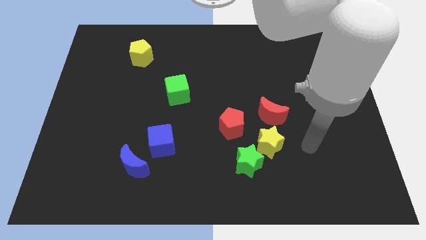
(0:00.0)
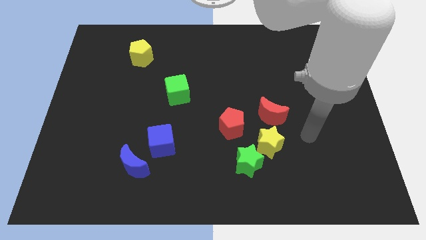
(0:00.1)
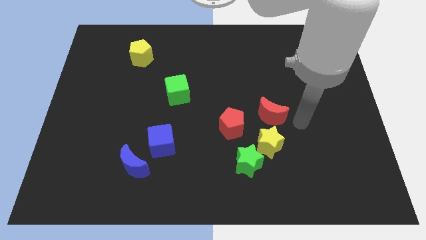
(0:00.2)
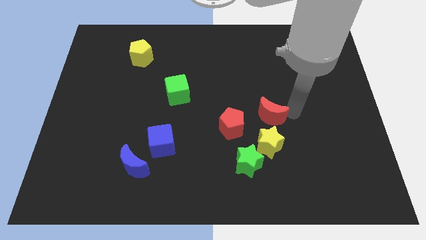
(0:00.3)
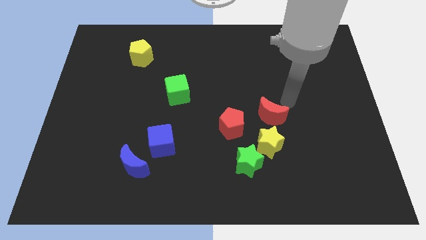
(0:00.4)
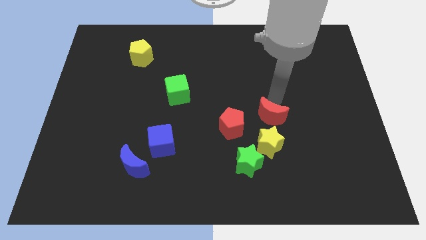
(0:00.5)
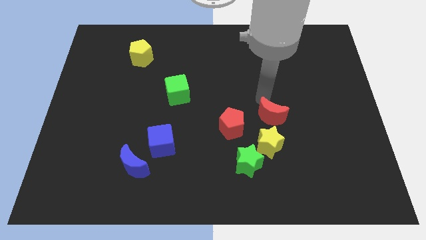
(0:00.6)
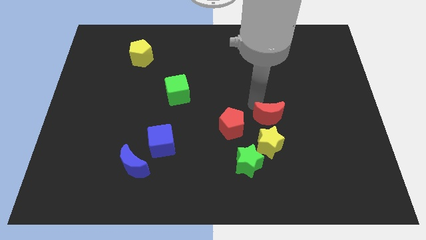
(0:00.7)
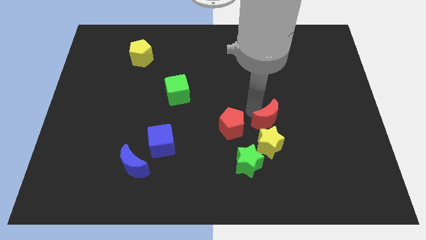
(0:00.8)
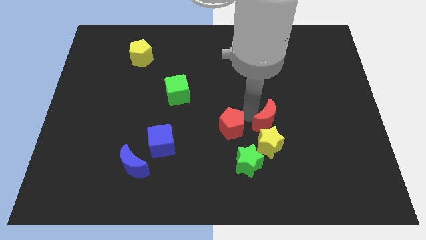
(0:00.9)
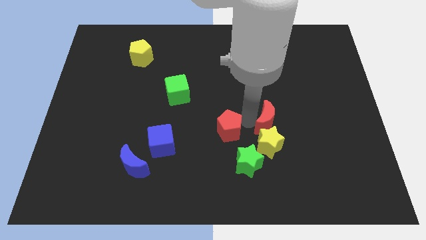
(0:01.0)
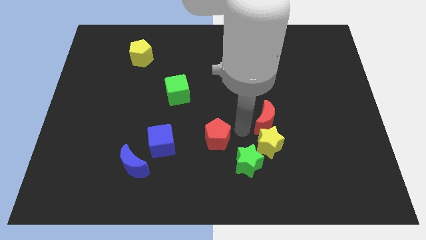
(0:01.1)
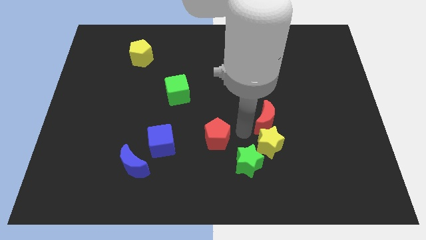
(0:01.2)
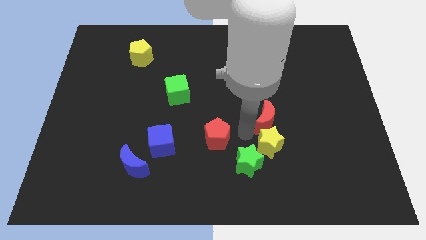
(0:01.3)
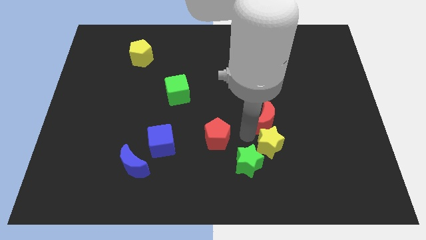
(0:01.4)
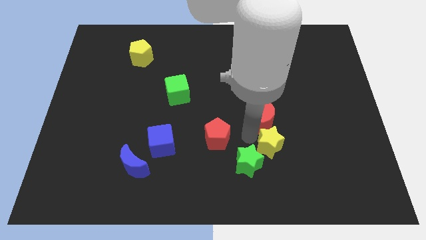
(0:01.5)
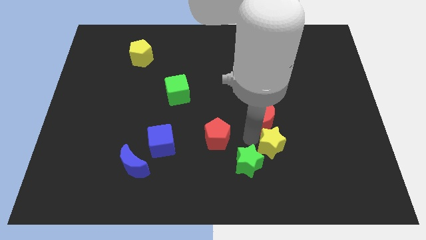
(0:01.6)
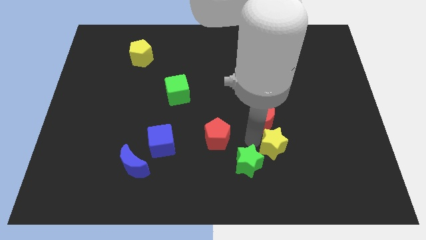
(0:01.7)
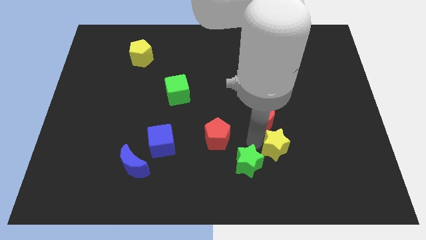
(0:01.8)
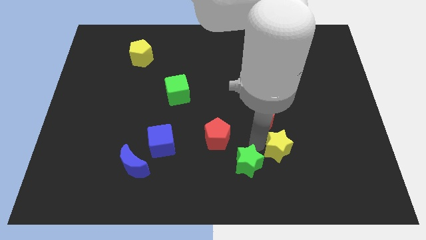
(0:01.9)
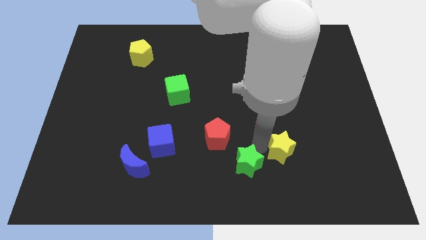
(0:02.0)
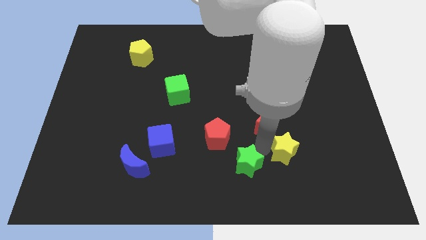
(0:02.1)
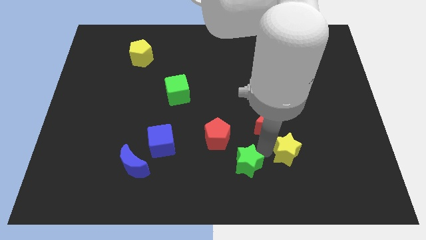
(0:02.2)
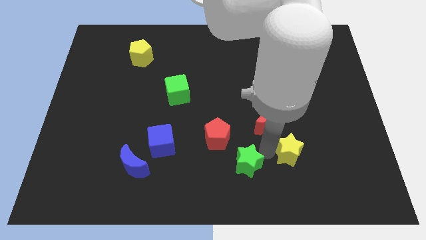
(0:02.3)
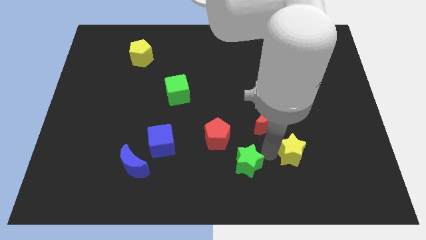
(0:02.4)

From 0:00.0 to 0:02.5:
separate the yellow star from the green star, red moon, and red pentagon

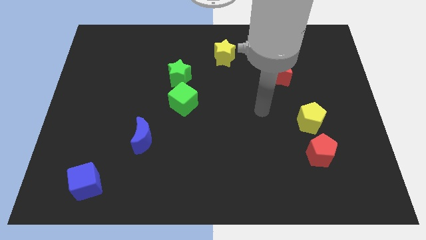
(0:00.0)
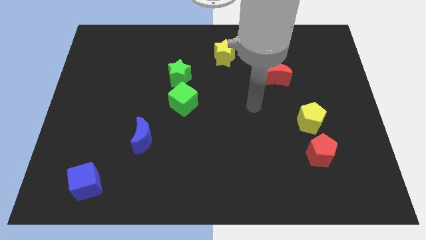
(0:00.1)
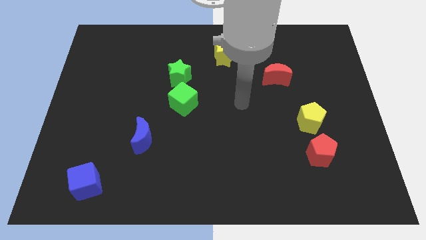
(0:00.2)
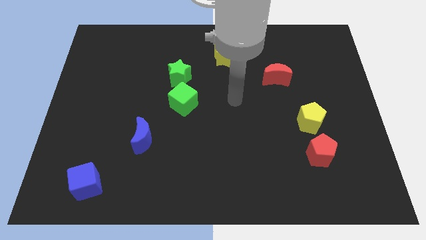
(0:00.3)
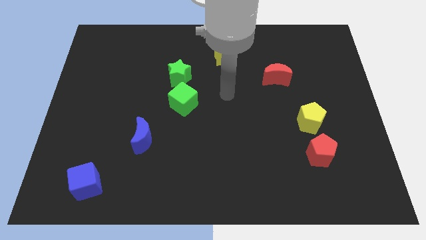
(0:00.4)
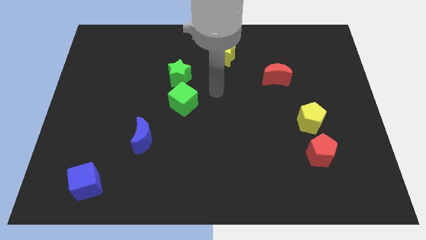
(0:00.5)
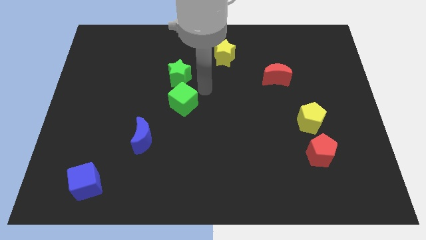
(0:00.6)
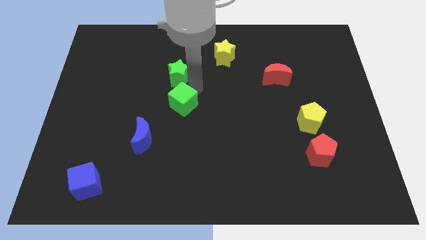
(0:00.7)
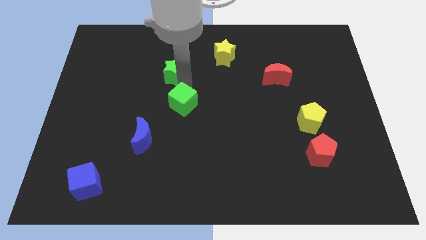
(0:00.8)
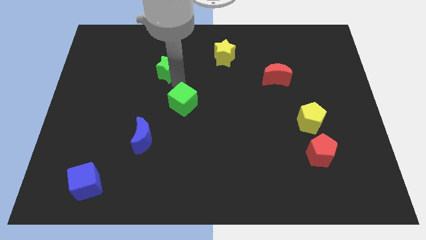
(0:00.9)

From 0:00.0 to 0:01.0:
move the green cube away from the green star

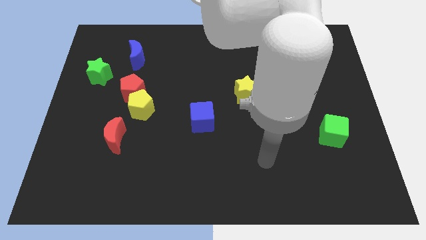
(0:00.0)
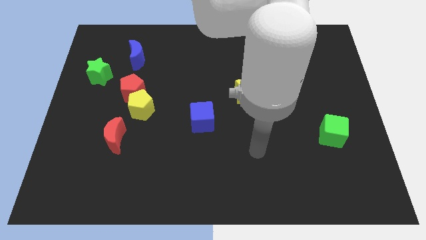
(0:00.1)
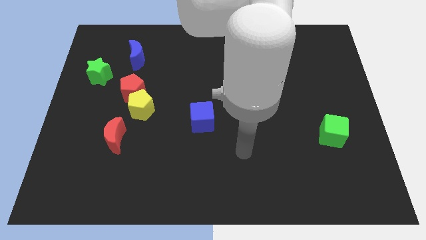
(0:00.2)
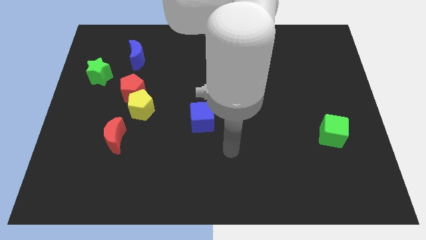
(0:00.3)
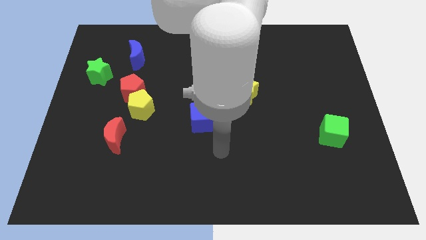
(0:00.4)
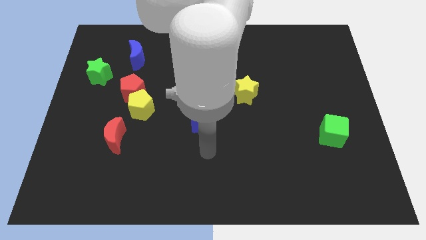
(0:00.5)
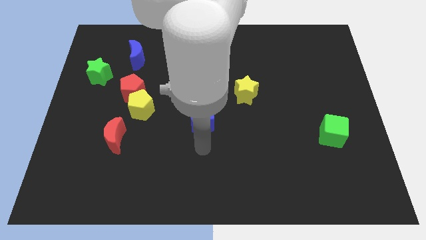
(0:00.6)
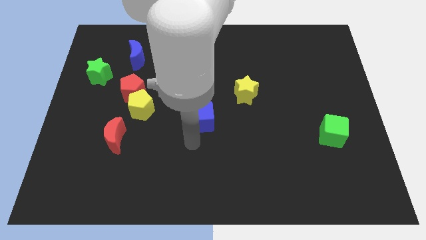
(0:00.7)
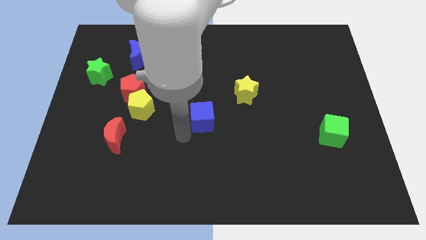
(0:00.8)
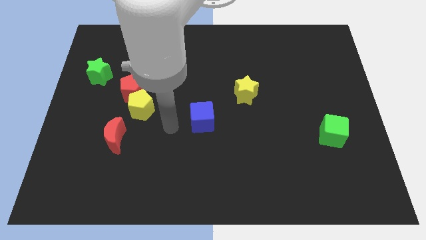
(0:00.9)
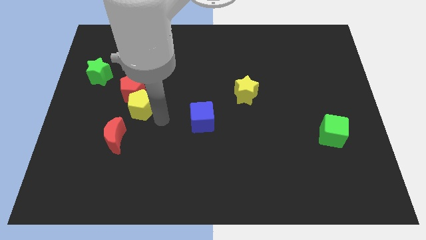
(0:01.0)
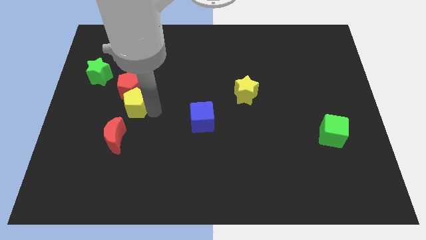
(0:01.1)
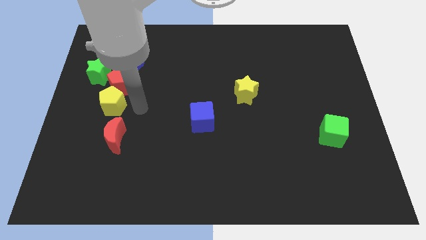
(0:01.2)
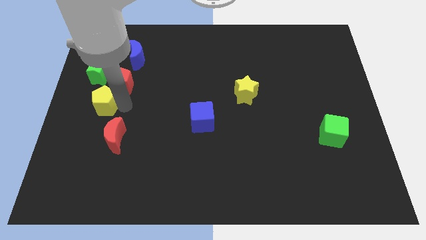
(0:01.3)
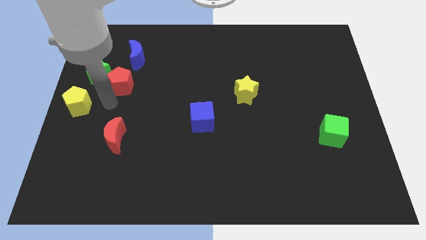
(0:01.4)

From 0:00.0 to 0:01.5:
pull the red pentagon apart from the yellow pentagon

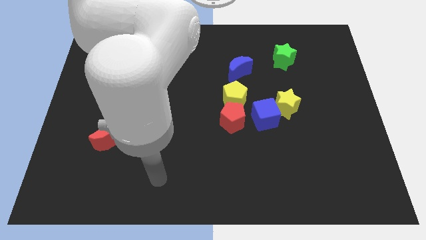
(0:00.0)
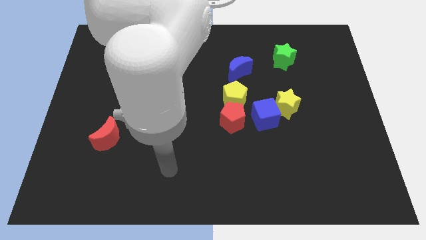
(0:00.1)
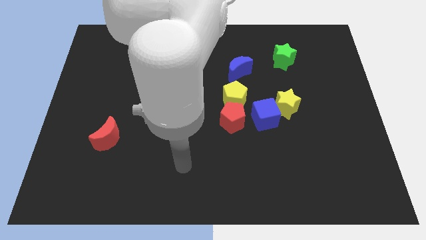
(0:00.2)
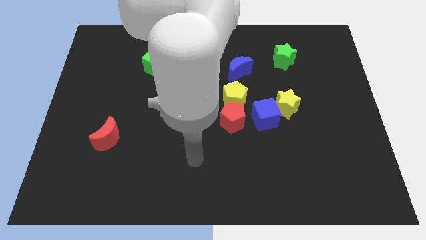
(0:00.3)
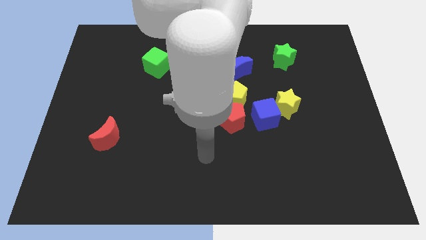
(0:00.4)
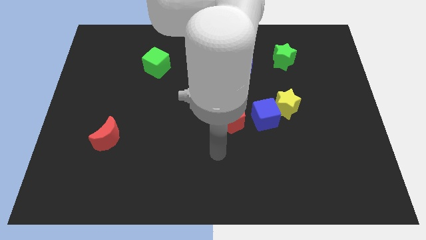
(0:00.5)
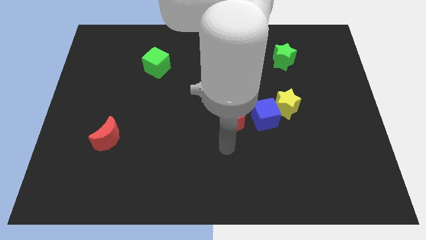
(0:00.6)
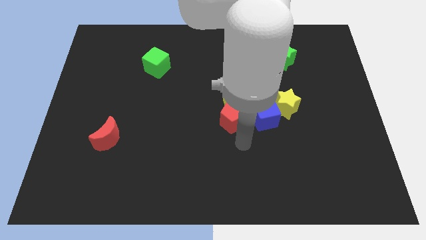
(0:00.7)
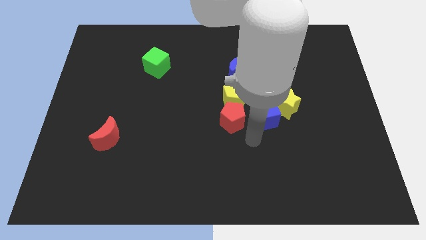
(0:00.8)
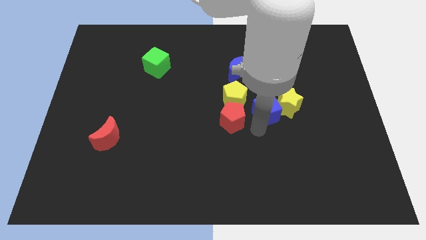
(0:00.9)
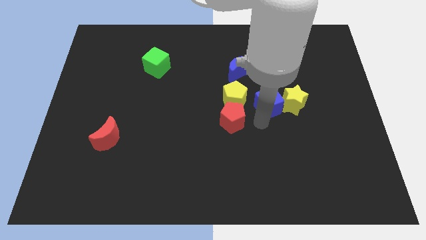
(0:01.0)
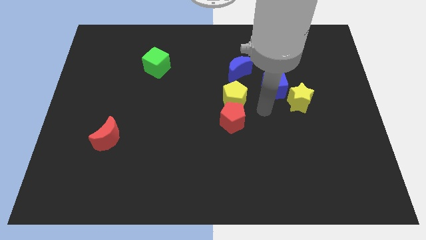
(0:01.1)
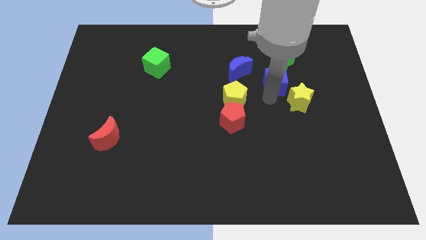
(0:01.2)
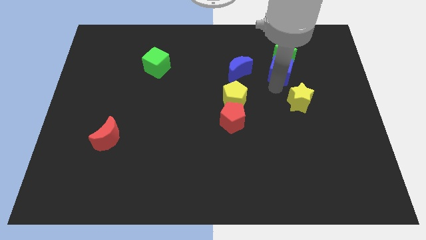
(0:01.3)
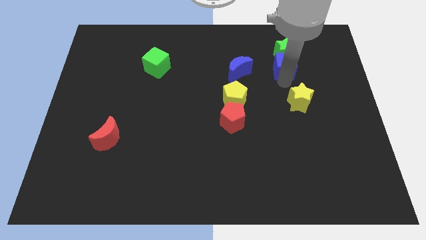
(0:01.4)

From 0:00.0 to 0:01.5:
pull the yellow star apart from the blue cube

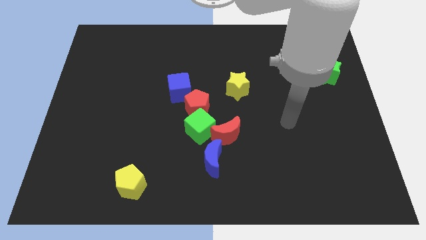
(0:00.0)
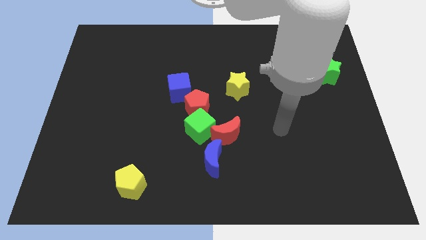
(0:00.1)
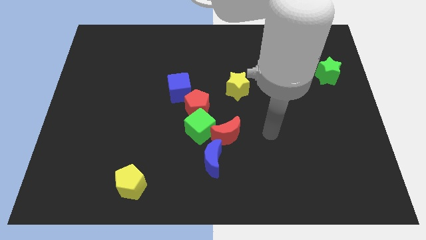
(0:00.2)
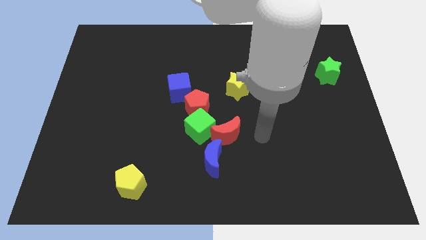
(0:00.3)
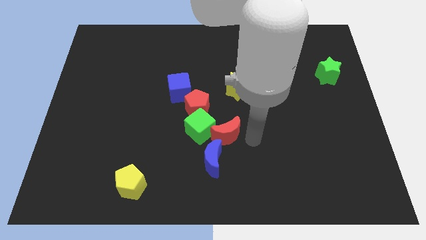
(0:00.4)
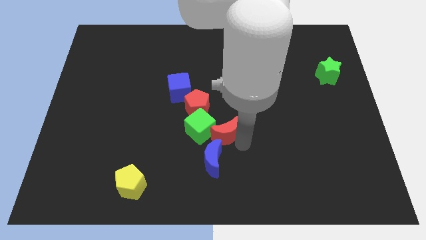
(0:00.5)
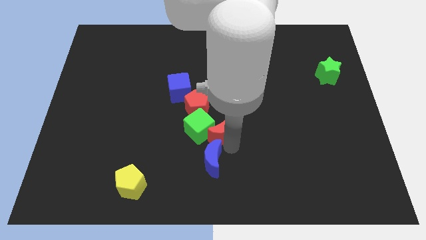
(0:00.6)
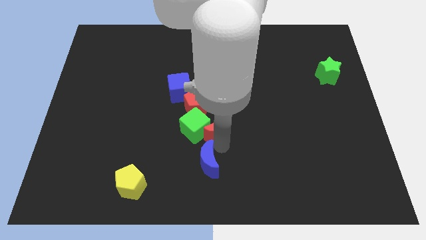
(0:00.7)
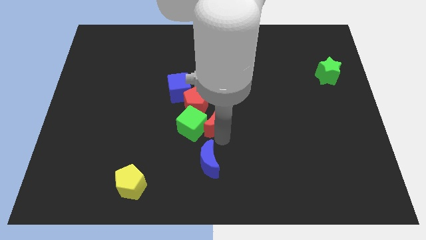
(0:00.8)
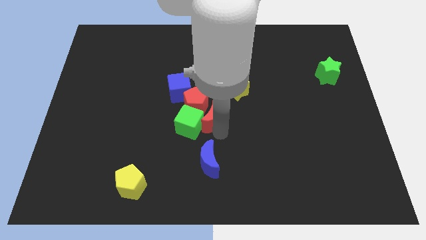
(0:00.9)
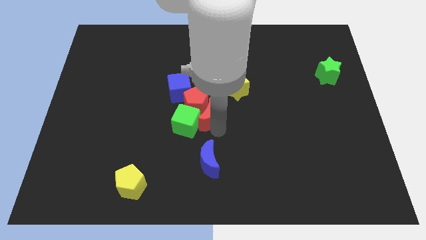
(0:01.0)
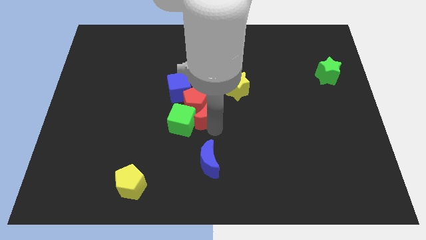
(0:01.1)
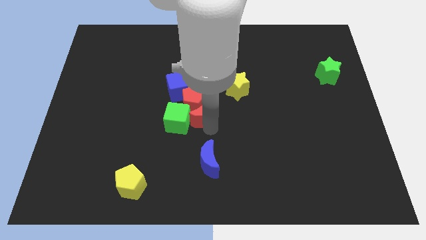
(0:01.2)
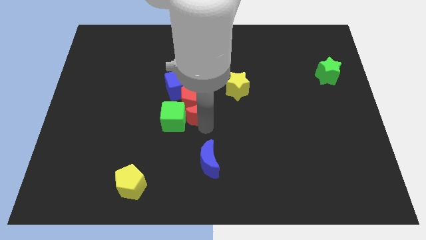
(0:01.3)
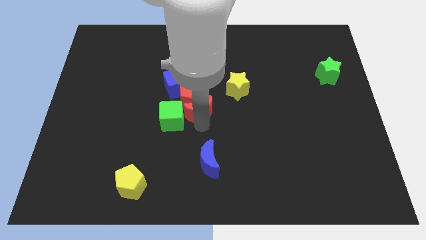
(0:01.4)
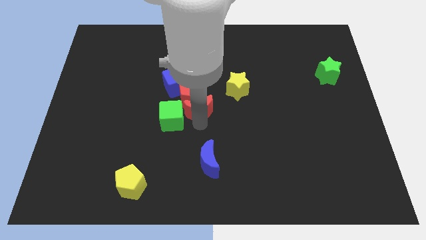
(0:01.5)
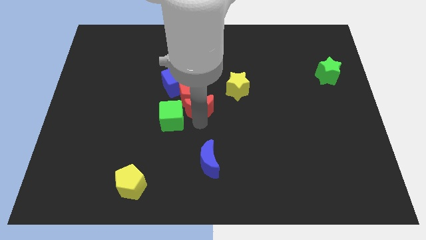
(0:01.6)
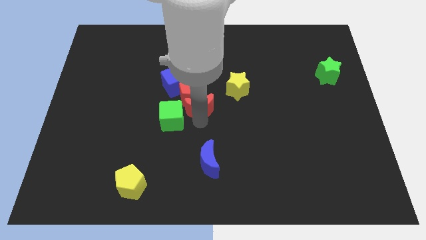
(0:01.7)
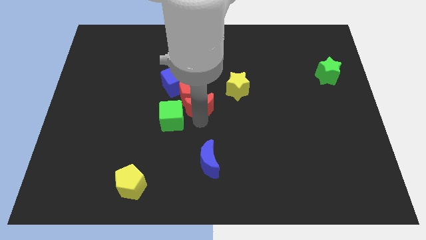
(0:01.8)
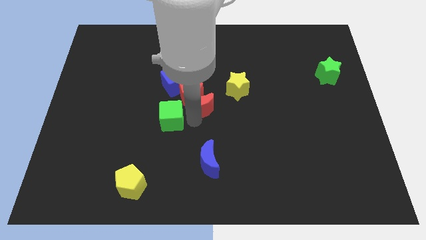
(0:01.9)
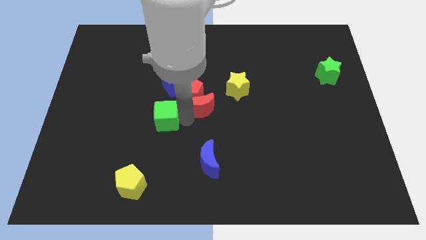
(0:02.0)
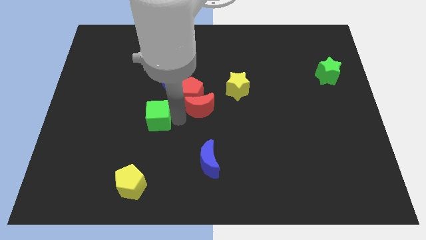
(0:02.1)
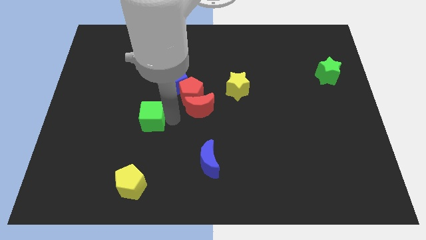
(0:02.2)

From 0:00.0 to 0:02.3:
pull the green cube apart from the group

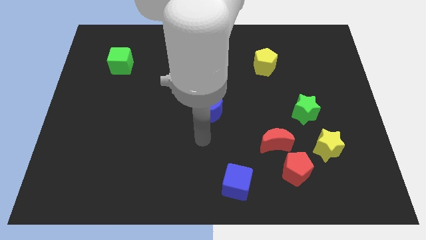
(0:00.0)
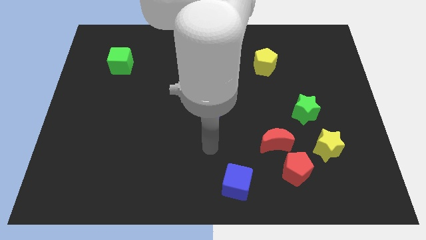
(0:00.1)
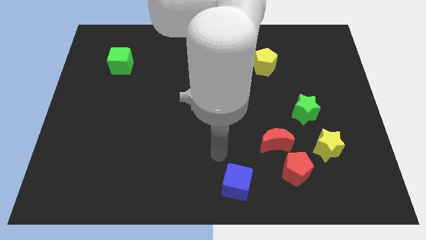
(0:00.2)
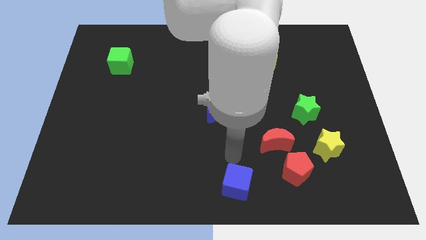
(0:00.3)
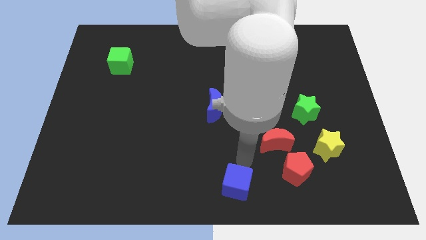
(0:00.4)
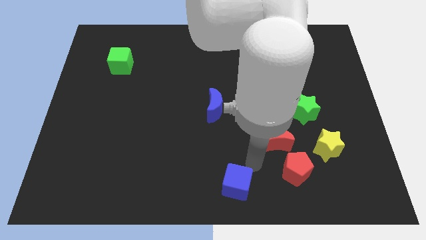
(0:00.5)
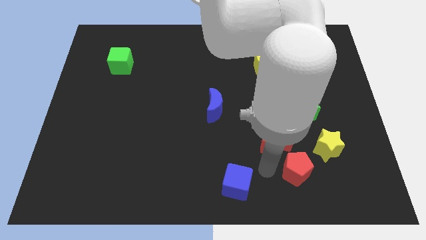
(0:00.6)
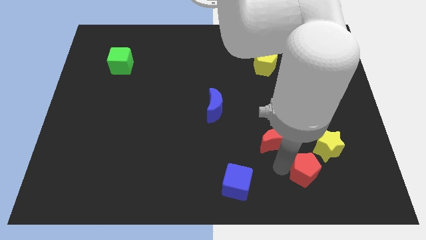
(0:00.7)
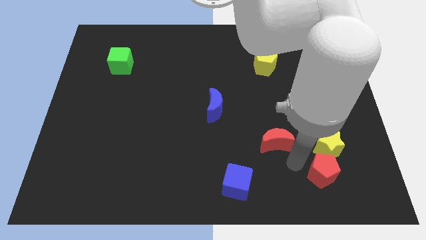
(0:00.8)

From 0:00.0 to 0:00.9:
pull the red moon apart from the red pentagon
